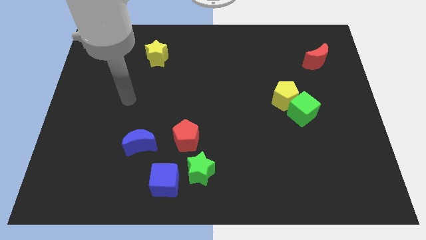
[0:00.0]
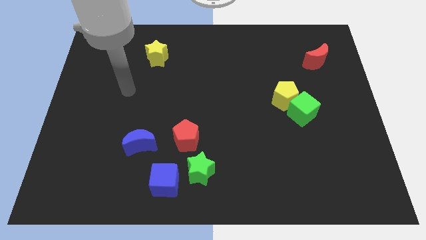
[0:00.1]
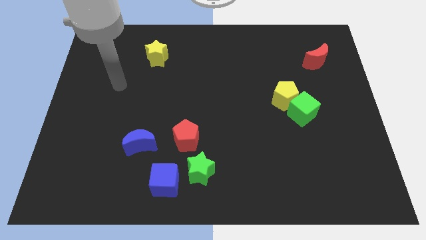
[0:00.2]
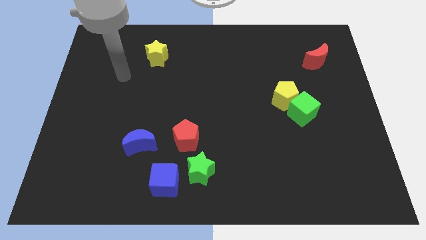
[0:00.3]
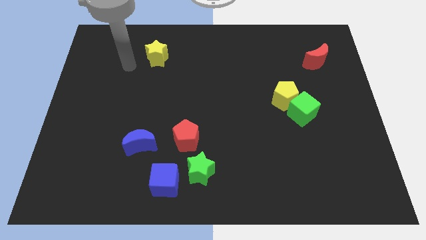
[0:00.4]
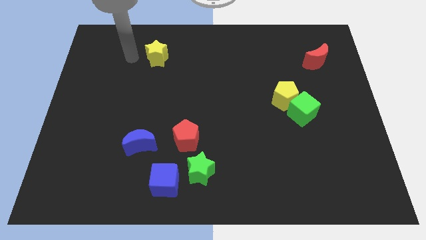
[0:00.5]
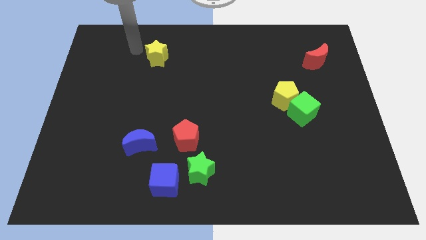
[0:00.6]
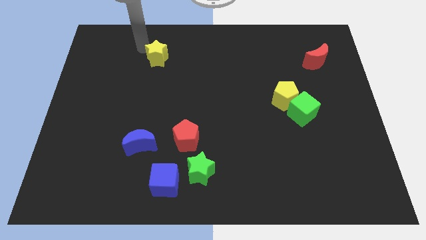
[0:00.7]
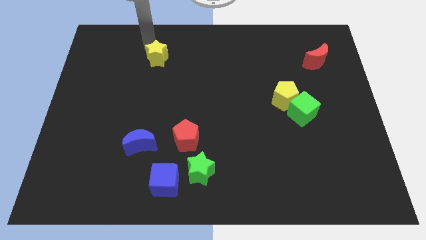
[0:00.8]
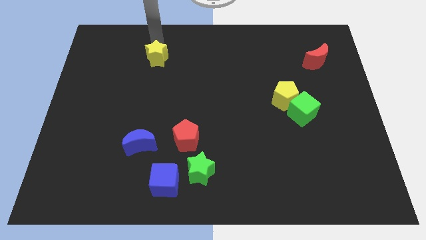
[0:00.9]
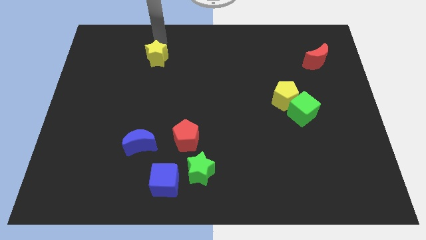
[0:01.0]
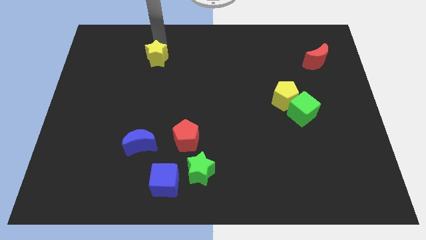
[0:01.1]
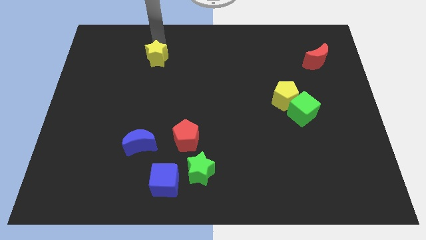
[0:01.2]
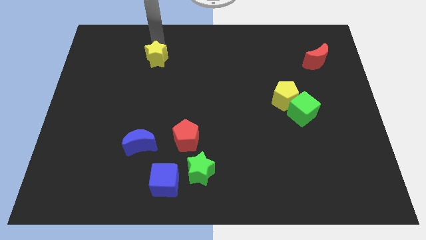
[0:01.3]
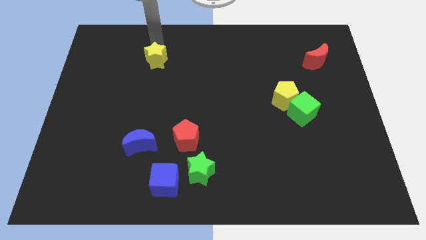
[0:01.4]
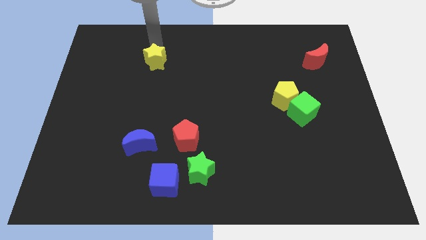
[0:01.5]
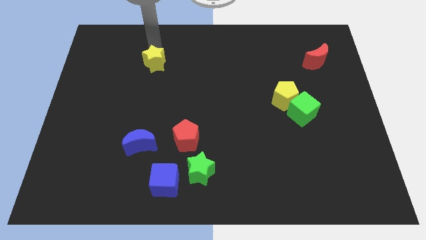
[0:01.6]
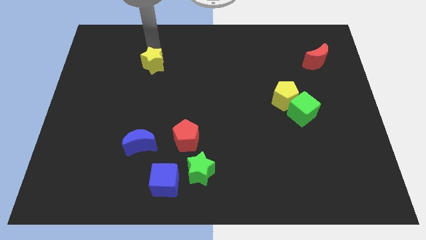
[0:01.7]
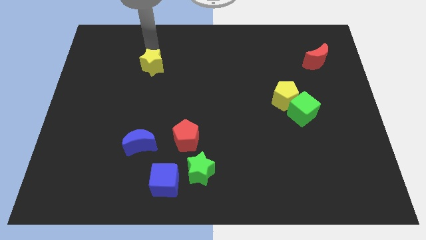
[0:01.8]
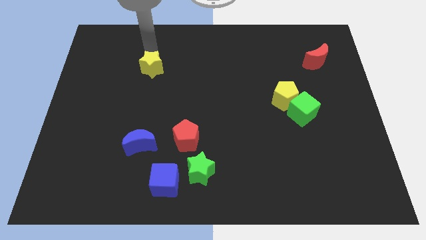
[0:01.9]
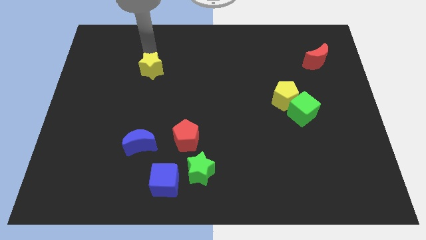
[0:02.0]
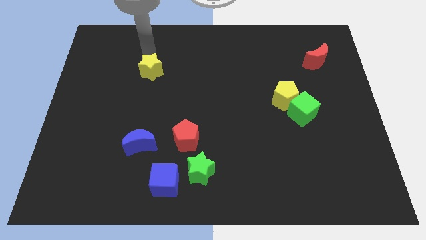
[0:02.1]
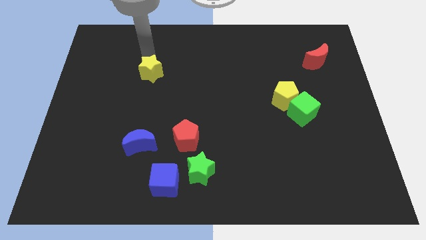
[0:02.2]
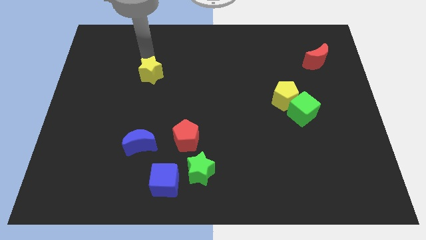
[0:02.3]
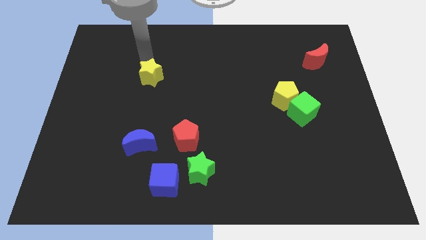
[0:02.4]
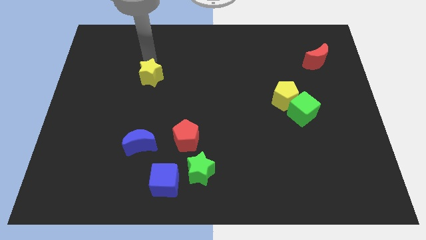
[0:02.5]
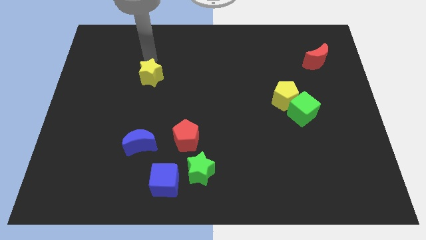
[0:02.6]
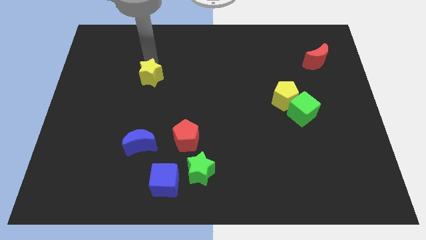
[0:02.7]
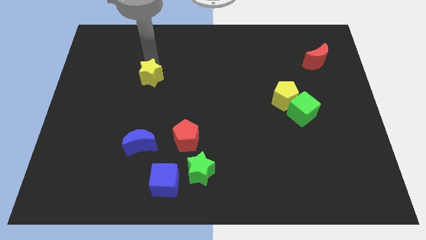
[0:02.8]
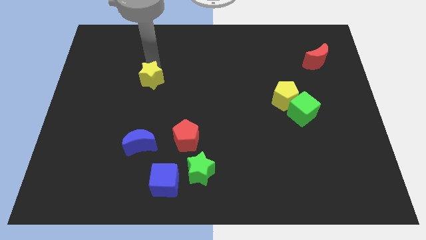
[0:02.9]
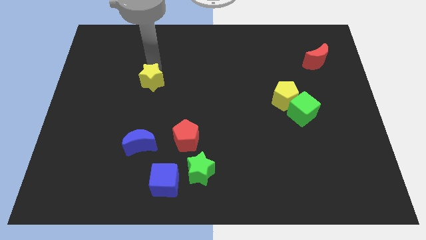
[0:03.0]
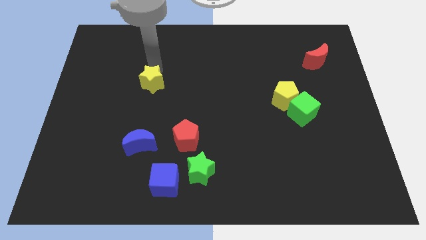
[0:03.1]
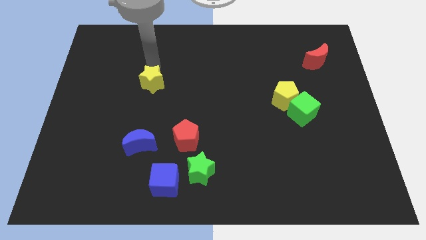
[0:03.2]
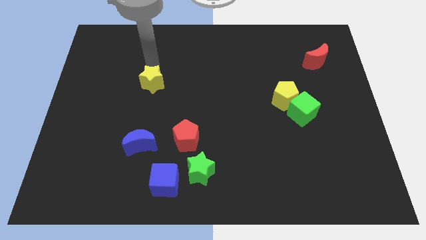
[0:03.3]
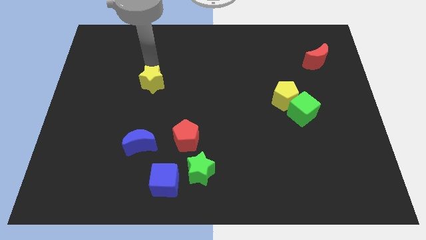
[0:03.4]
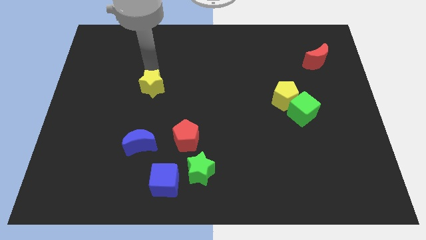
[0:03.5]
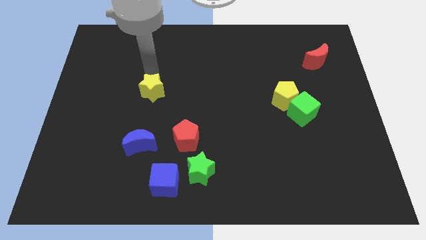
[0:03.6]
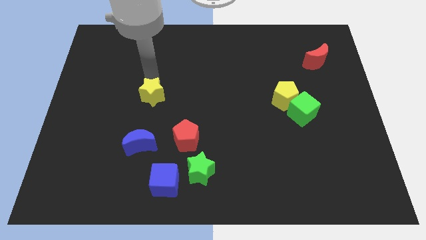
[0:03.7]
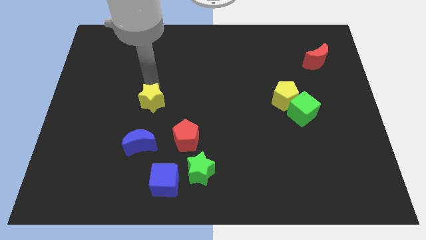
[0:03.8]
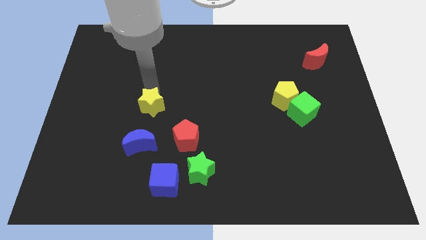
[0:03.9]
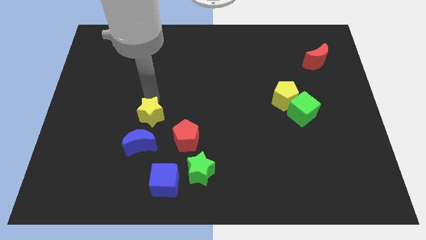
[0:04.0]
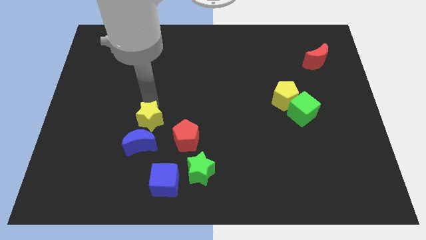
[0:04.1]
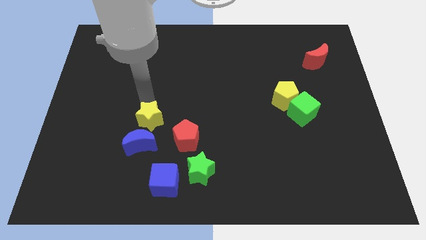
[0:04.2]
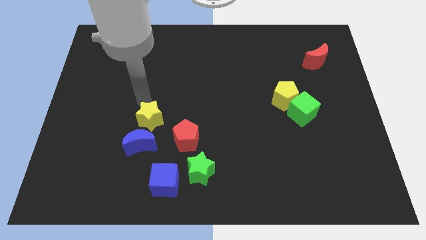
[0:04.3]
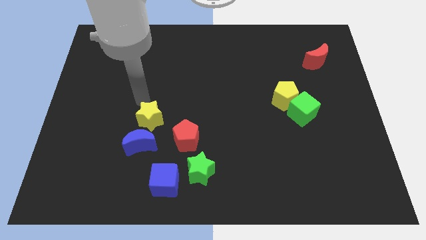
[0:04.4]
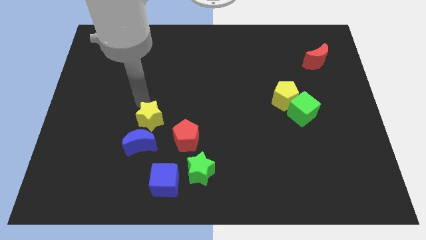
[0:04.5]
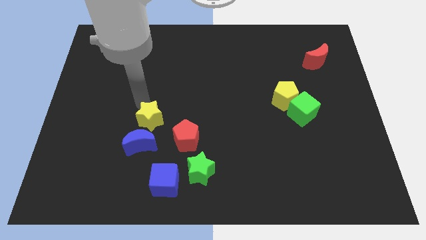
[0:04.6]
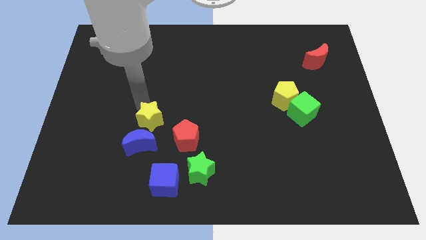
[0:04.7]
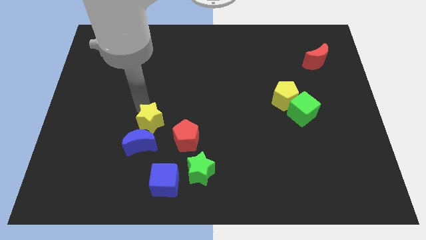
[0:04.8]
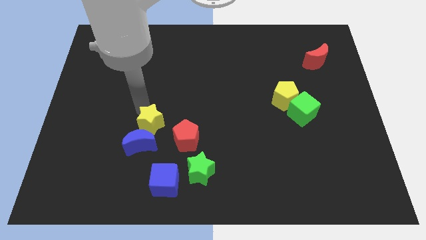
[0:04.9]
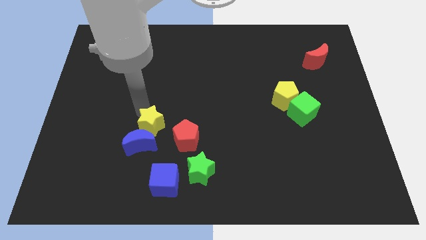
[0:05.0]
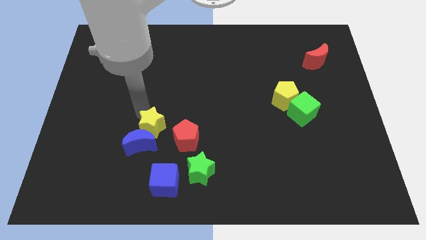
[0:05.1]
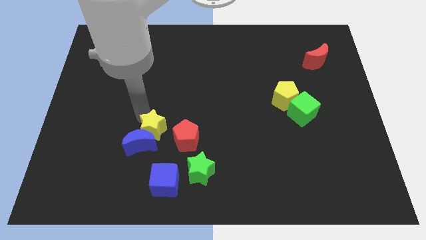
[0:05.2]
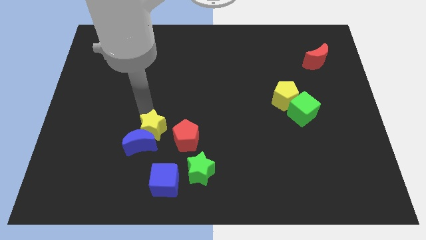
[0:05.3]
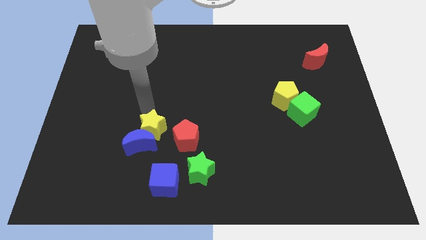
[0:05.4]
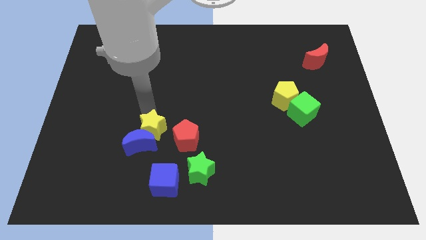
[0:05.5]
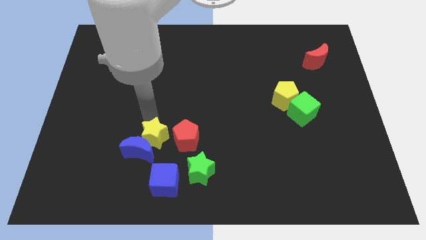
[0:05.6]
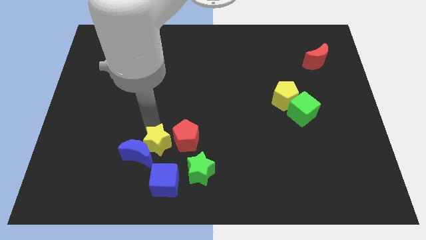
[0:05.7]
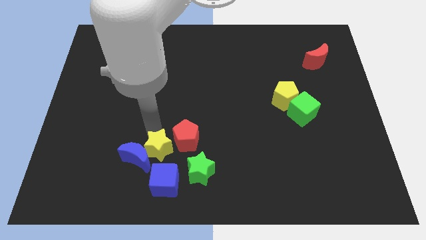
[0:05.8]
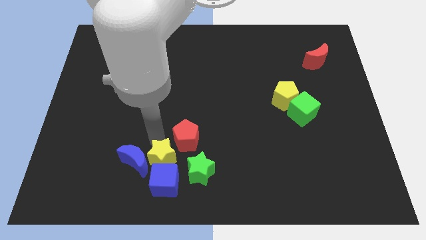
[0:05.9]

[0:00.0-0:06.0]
push the yellow star towards the blue cube

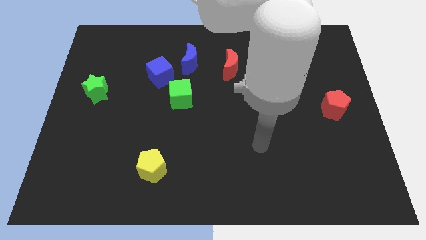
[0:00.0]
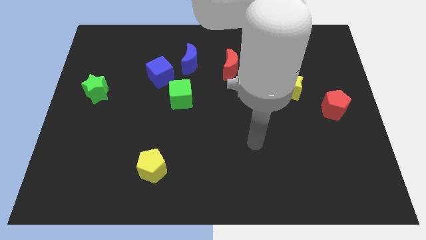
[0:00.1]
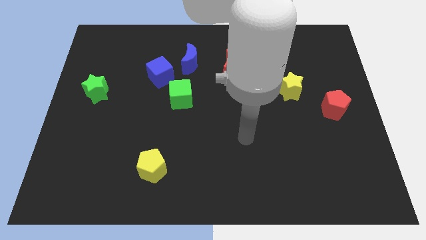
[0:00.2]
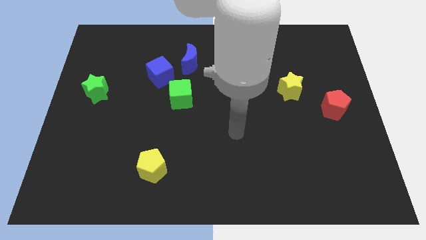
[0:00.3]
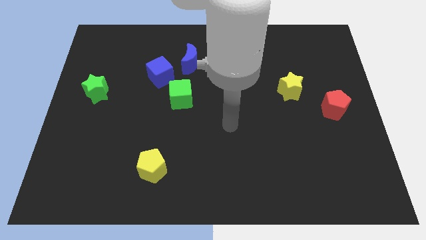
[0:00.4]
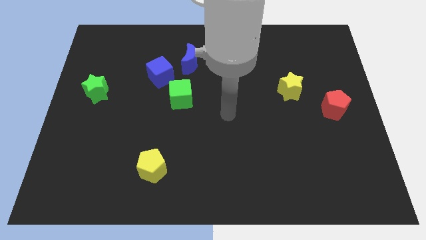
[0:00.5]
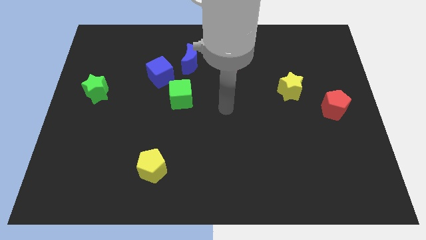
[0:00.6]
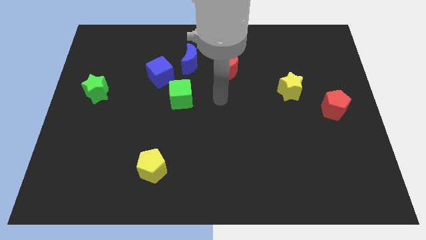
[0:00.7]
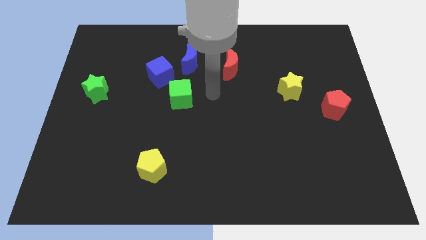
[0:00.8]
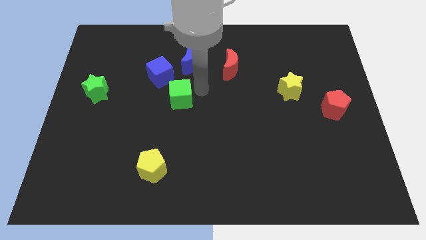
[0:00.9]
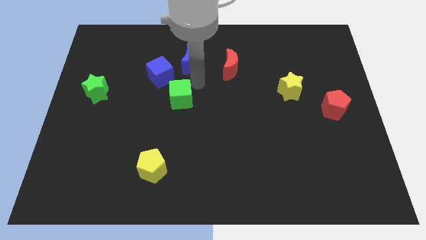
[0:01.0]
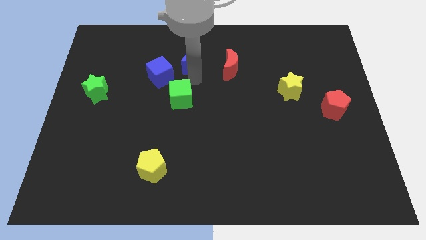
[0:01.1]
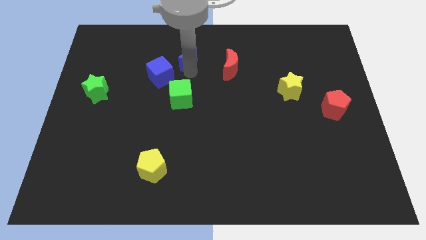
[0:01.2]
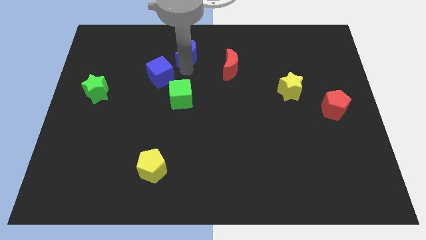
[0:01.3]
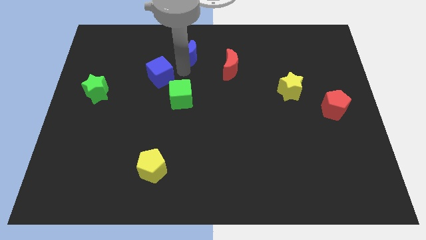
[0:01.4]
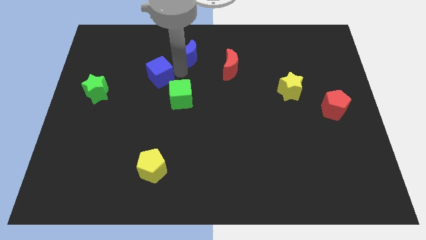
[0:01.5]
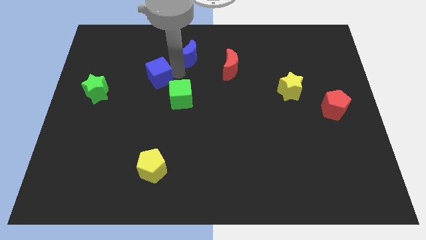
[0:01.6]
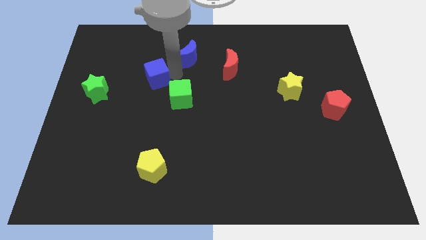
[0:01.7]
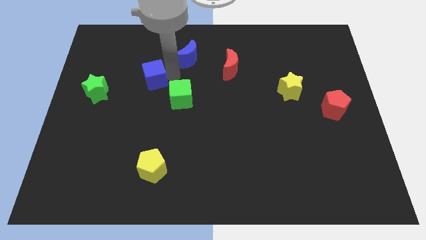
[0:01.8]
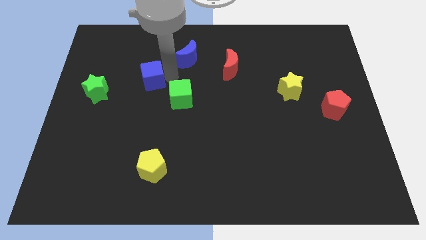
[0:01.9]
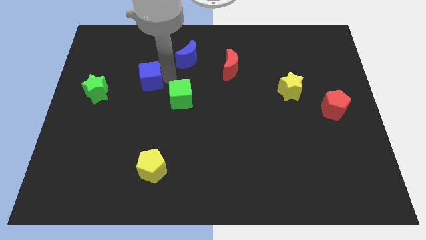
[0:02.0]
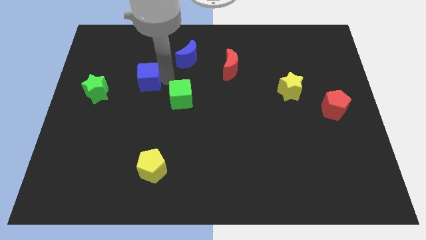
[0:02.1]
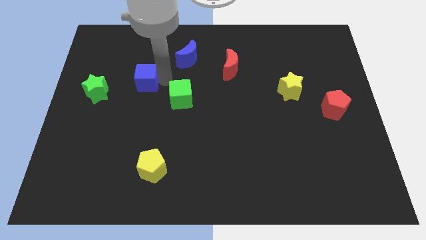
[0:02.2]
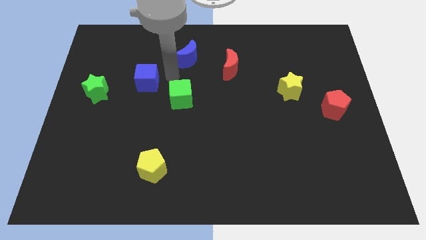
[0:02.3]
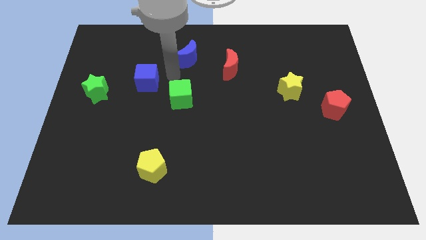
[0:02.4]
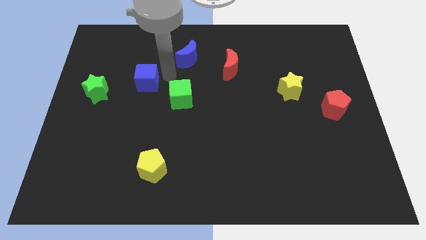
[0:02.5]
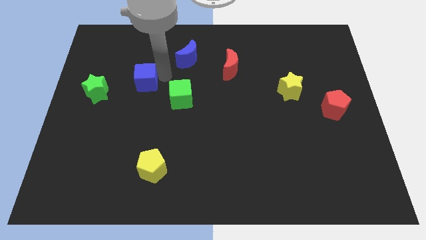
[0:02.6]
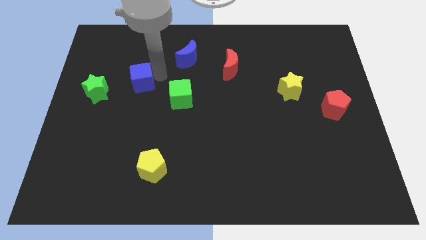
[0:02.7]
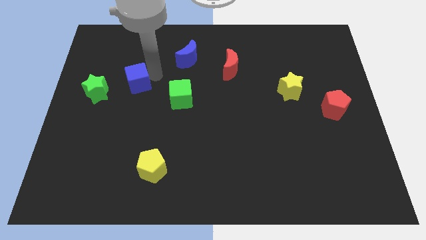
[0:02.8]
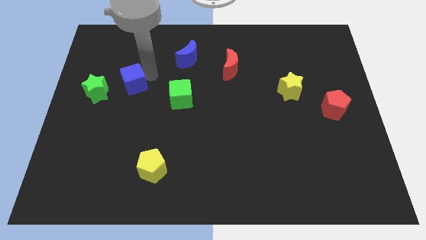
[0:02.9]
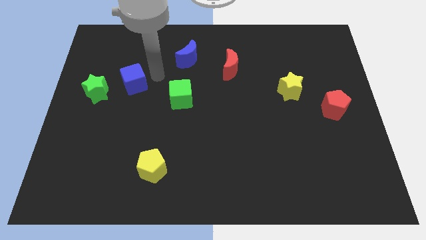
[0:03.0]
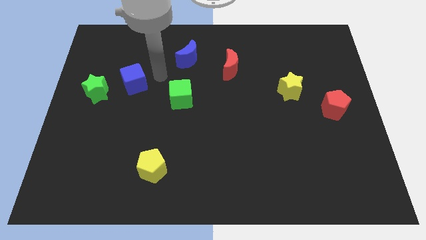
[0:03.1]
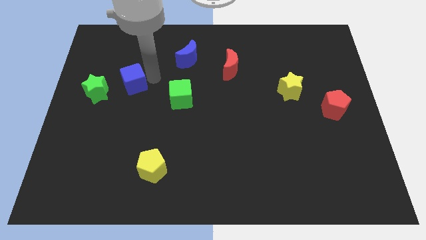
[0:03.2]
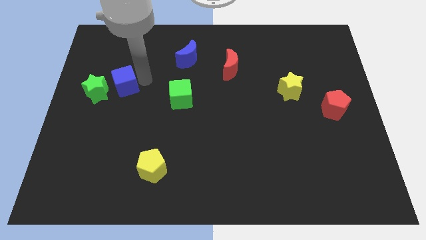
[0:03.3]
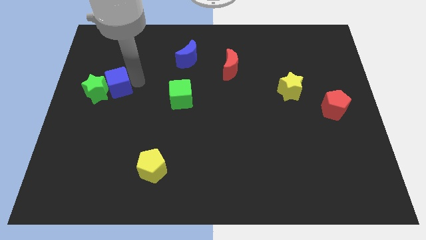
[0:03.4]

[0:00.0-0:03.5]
put the blue cube to the green star
